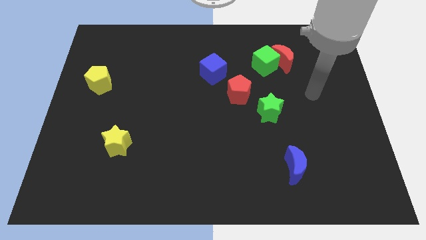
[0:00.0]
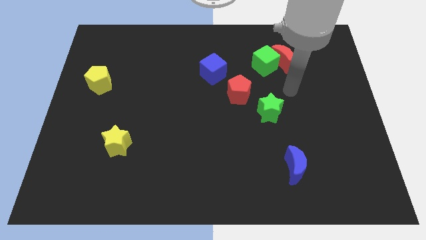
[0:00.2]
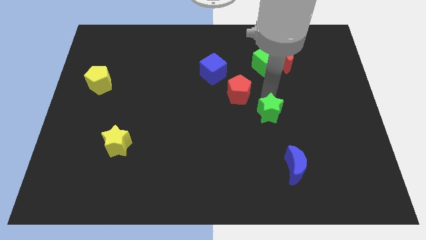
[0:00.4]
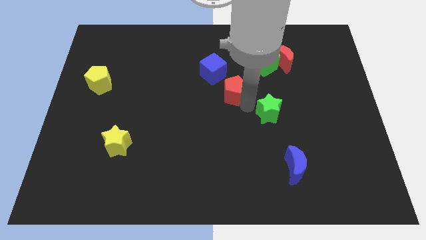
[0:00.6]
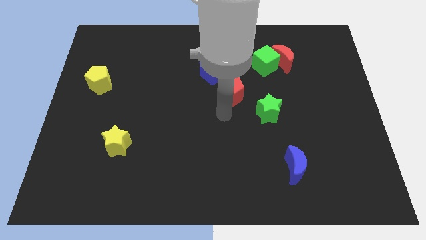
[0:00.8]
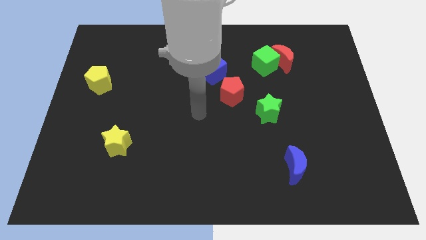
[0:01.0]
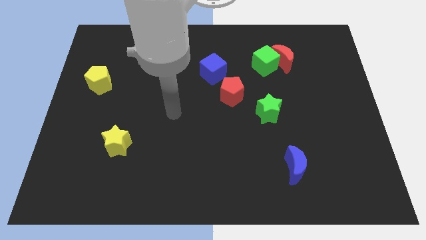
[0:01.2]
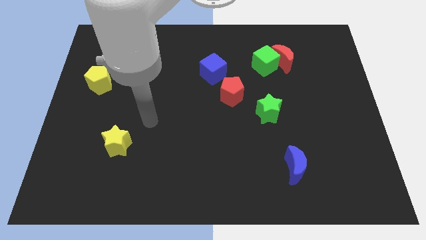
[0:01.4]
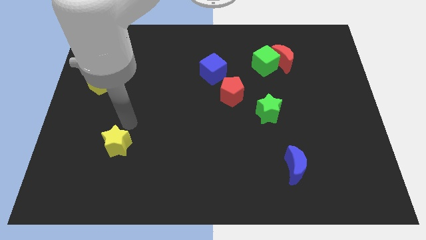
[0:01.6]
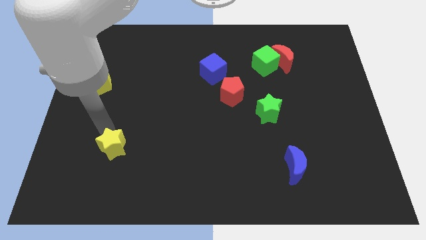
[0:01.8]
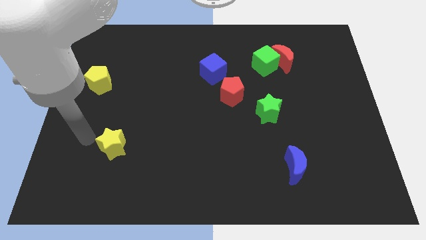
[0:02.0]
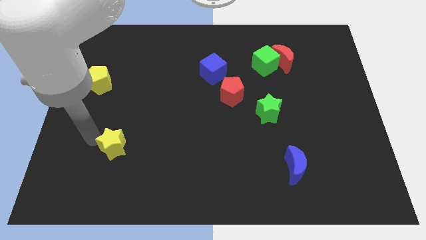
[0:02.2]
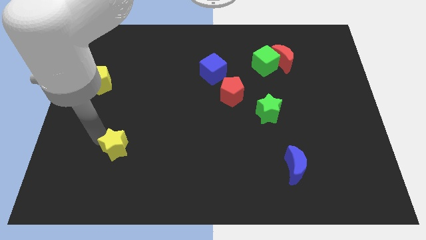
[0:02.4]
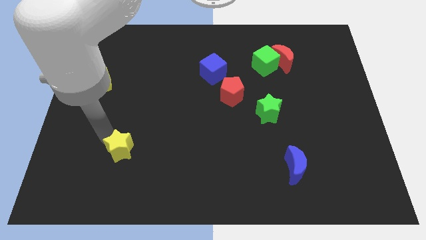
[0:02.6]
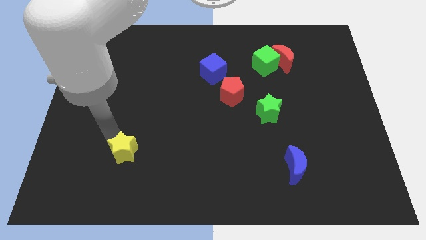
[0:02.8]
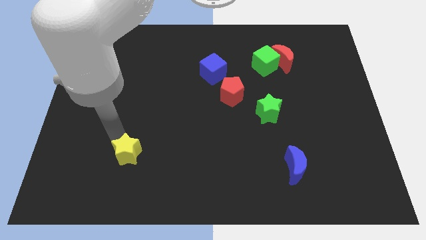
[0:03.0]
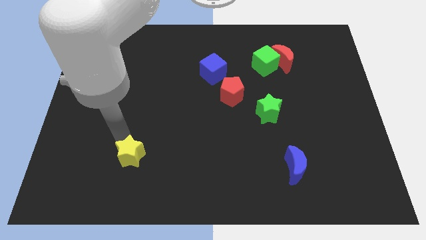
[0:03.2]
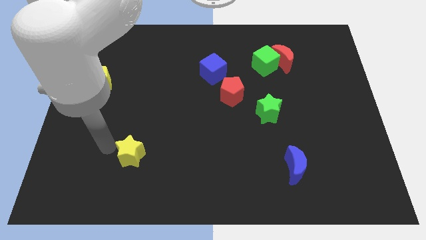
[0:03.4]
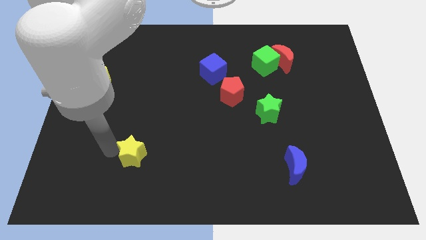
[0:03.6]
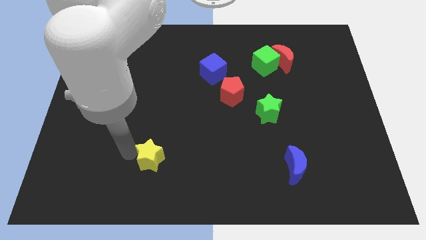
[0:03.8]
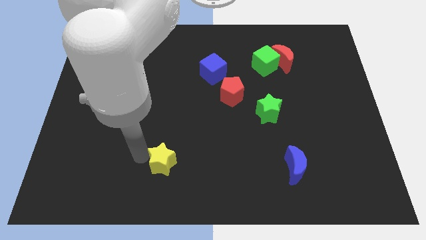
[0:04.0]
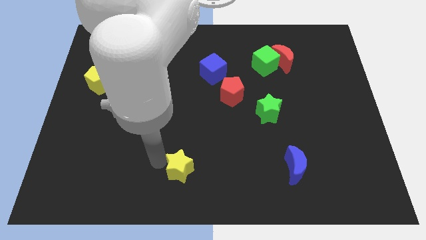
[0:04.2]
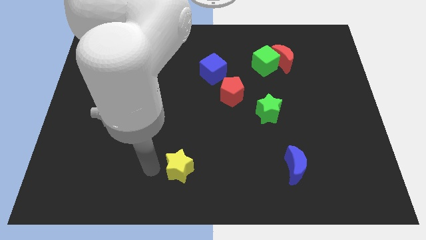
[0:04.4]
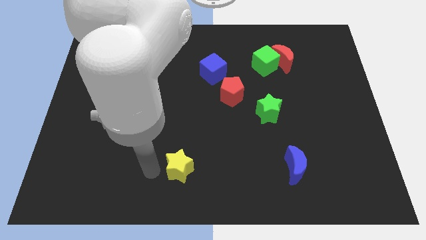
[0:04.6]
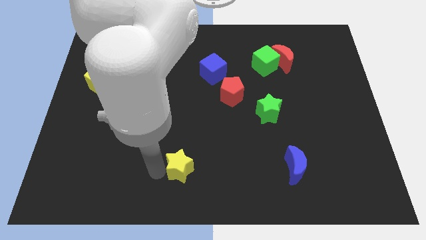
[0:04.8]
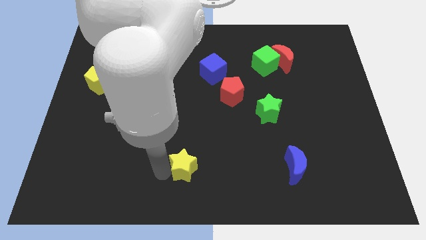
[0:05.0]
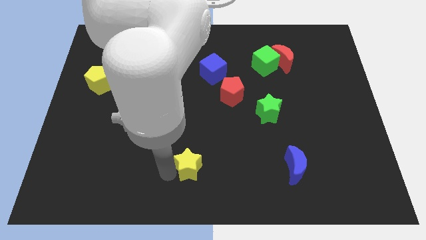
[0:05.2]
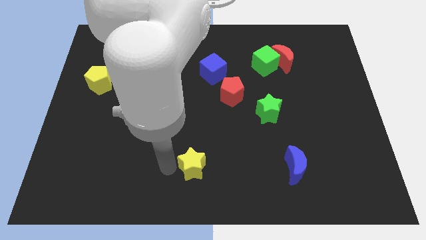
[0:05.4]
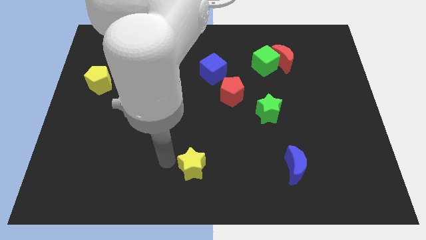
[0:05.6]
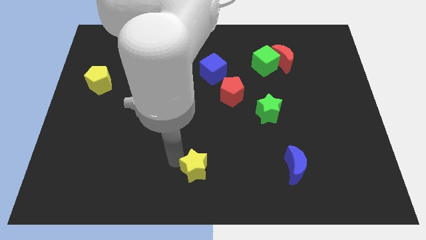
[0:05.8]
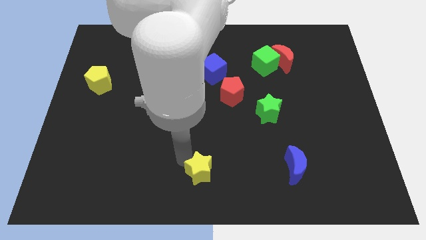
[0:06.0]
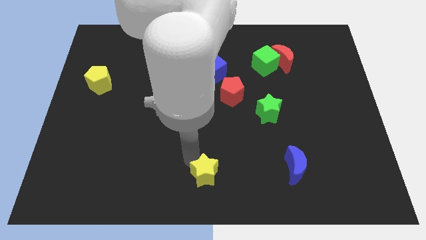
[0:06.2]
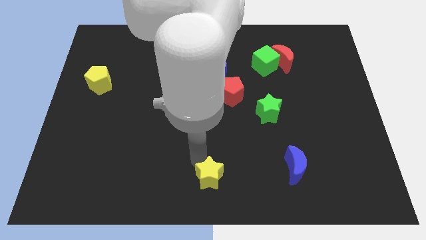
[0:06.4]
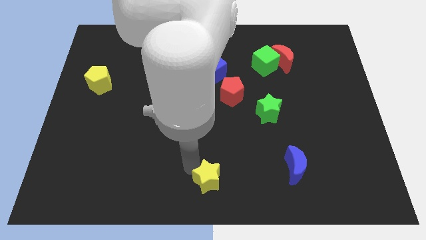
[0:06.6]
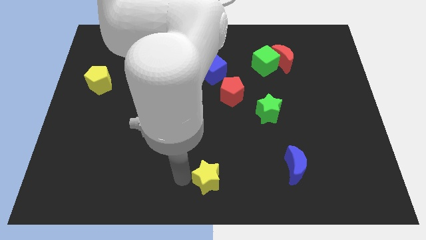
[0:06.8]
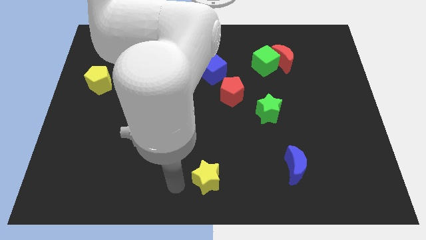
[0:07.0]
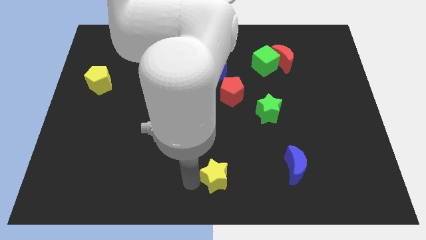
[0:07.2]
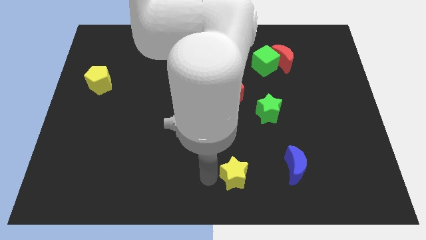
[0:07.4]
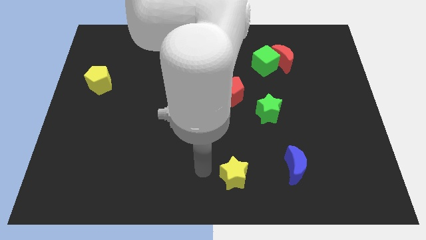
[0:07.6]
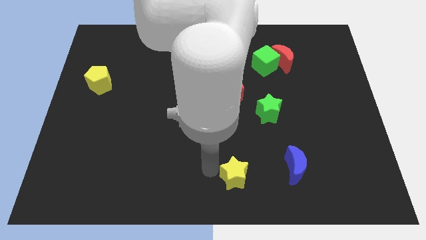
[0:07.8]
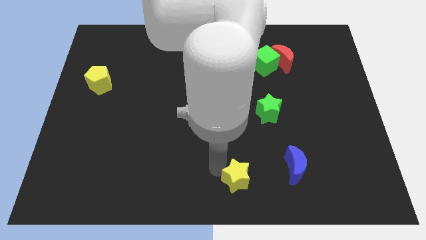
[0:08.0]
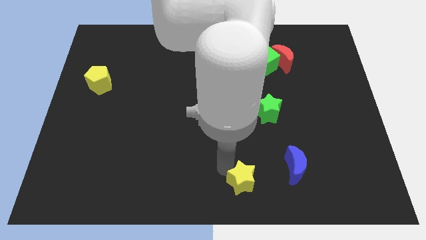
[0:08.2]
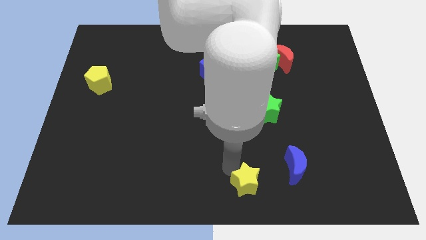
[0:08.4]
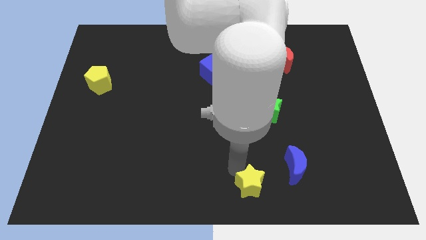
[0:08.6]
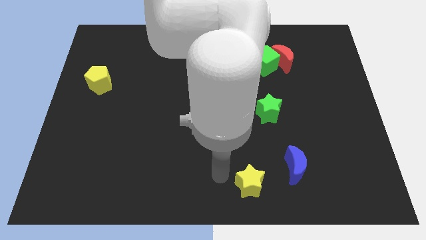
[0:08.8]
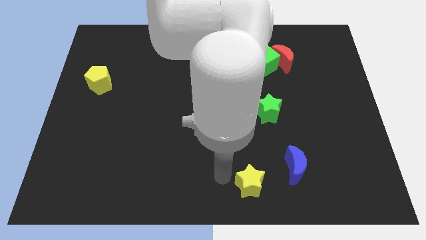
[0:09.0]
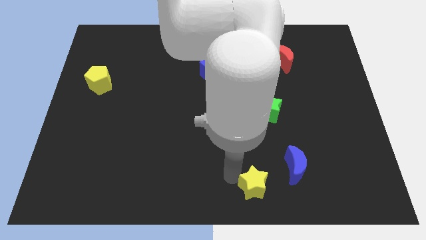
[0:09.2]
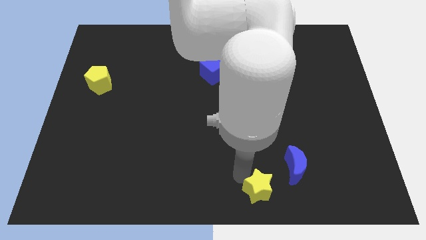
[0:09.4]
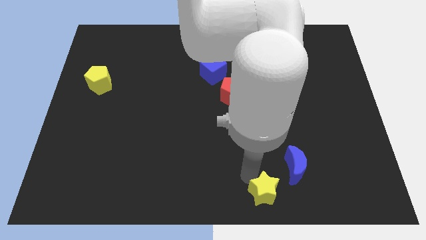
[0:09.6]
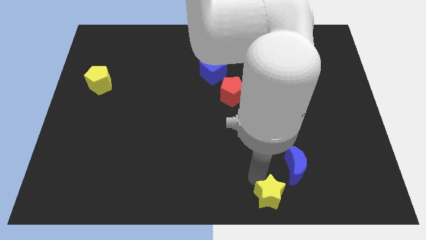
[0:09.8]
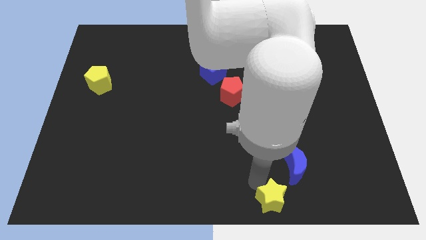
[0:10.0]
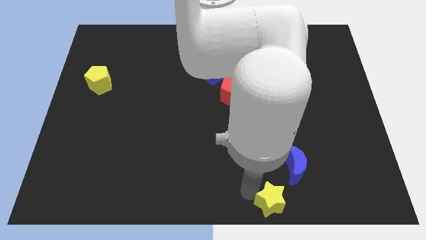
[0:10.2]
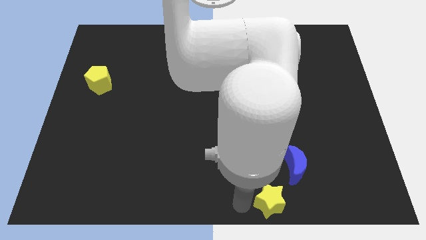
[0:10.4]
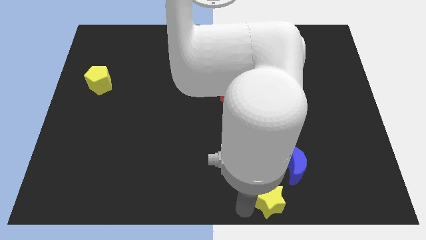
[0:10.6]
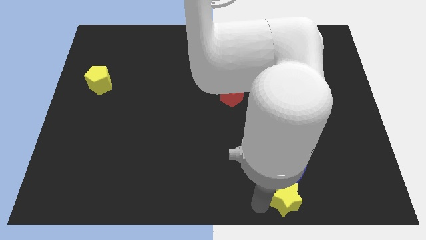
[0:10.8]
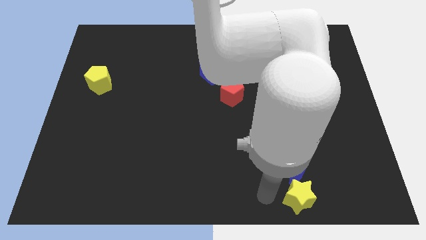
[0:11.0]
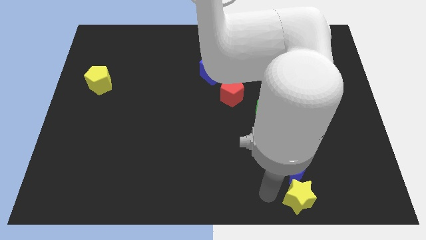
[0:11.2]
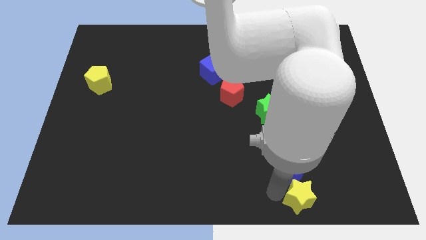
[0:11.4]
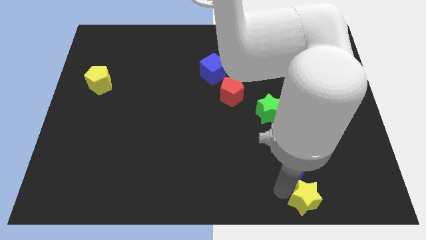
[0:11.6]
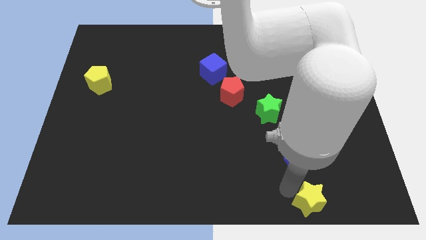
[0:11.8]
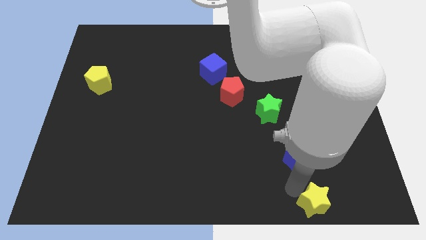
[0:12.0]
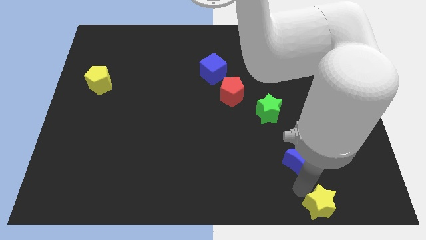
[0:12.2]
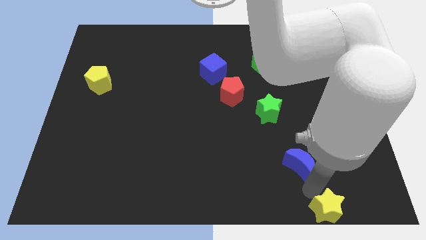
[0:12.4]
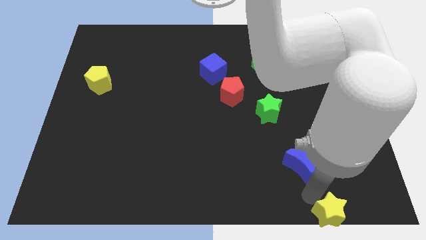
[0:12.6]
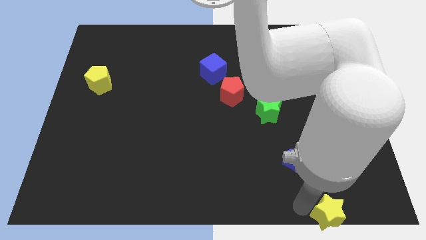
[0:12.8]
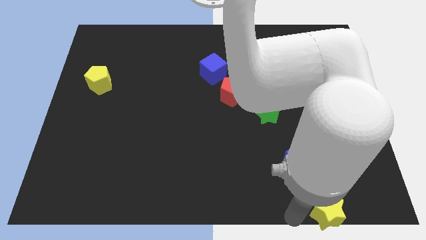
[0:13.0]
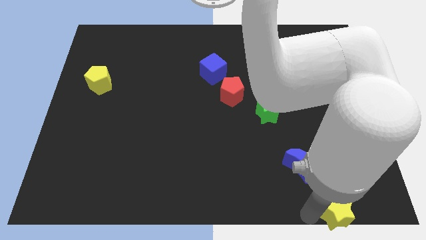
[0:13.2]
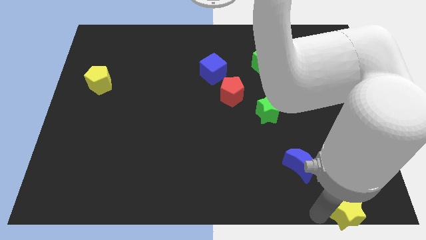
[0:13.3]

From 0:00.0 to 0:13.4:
move the yellow star to the bottom right of the board
